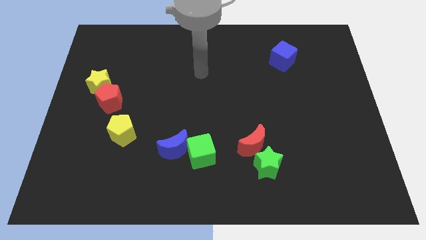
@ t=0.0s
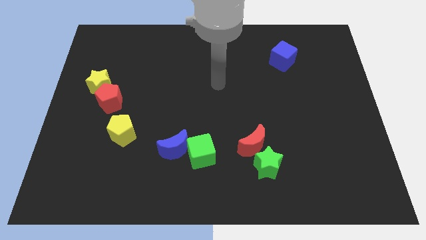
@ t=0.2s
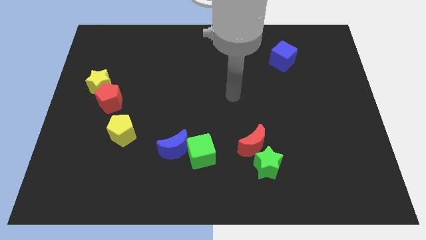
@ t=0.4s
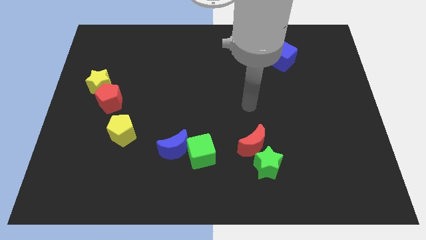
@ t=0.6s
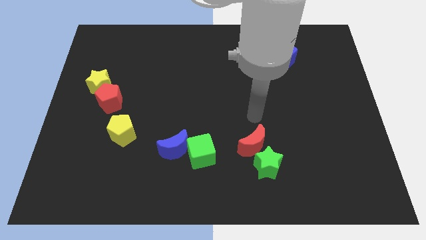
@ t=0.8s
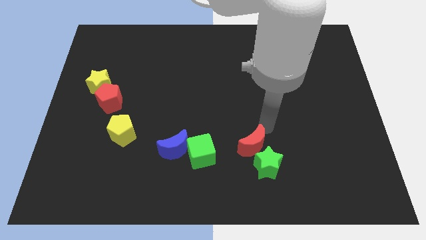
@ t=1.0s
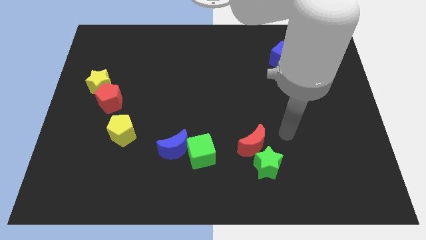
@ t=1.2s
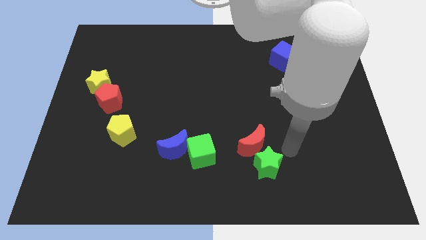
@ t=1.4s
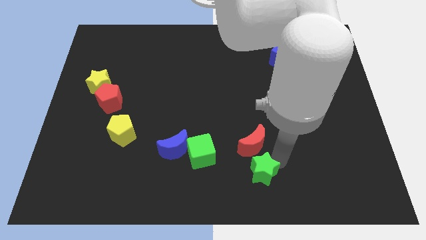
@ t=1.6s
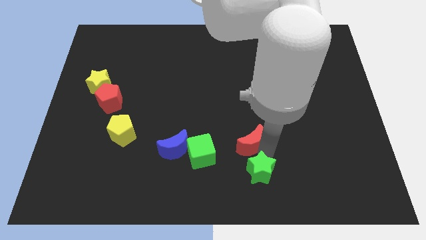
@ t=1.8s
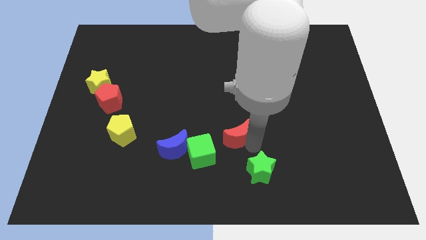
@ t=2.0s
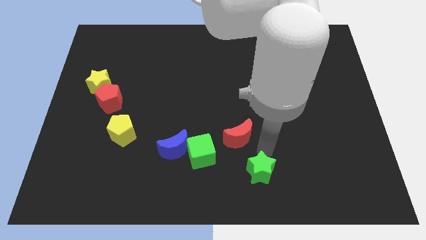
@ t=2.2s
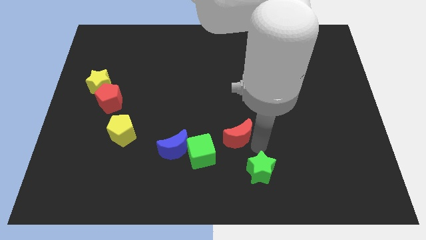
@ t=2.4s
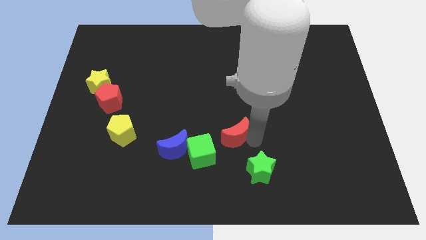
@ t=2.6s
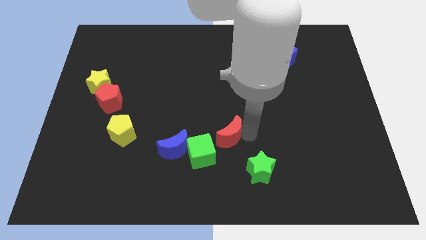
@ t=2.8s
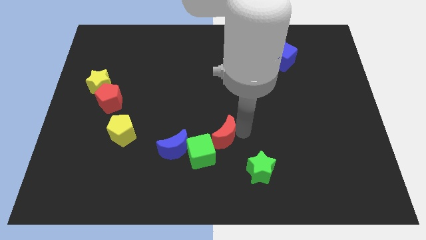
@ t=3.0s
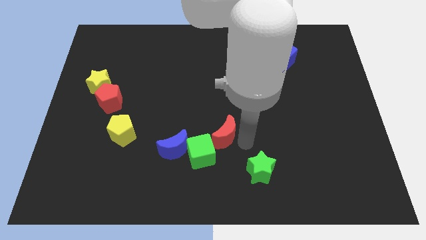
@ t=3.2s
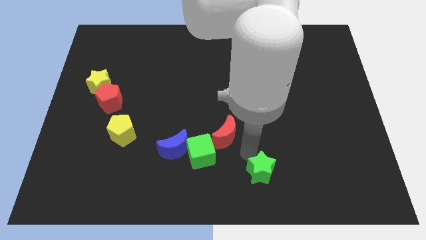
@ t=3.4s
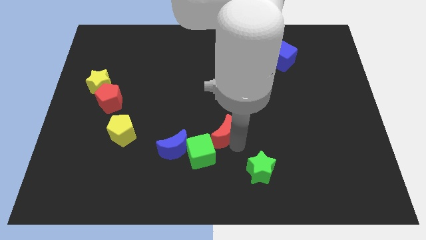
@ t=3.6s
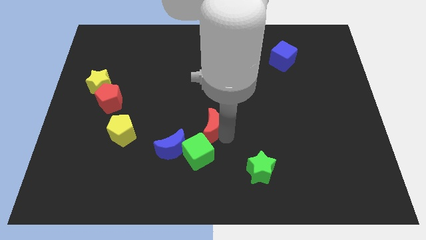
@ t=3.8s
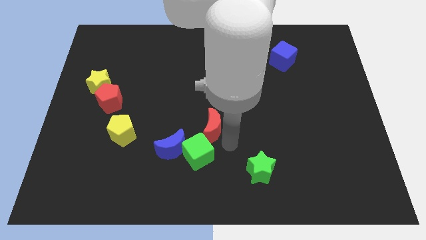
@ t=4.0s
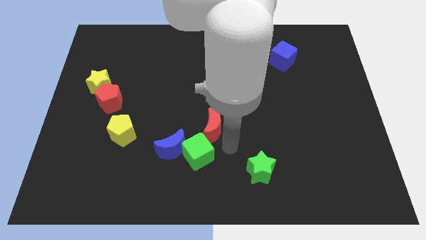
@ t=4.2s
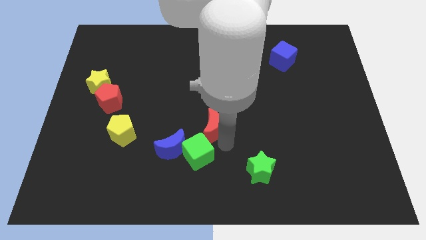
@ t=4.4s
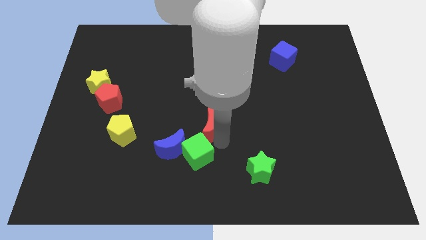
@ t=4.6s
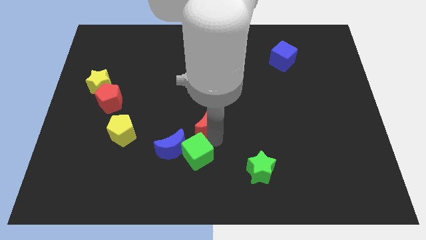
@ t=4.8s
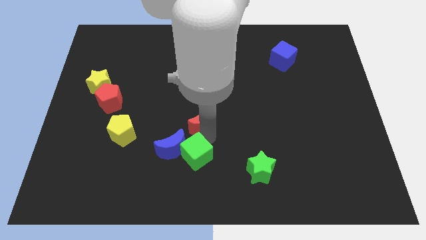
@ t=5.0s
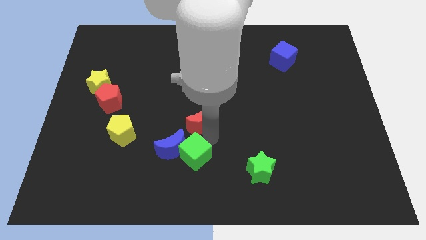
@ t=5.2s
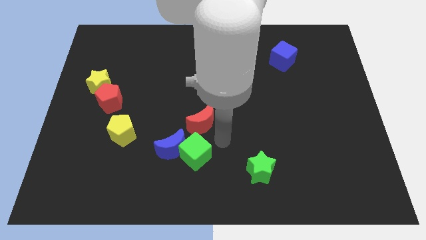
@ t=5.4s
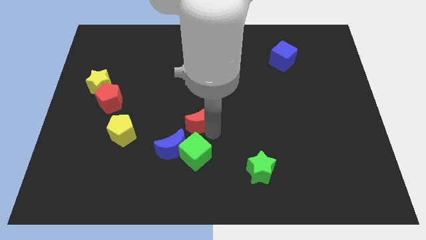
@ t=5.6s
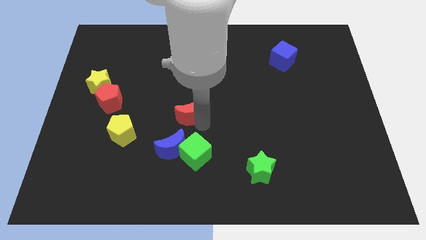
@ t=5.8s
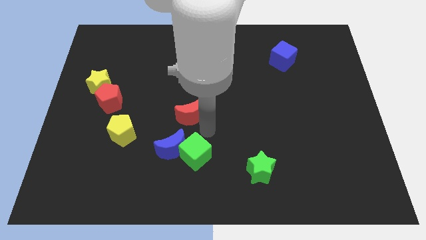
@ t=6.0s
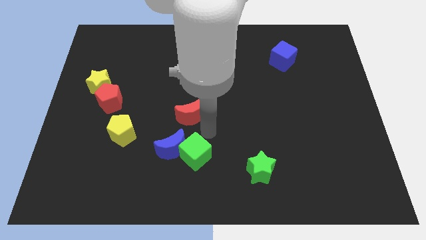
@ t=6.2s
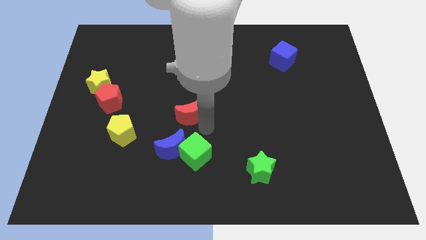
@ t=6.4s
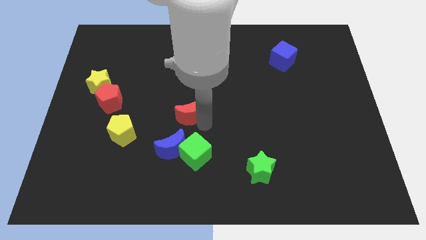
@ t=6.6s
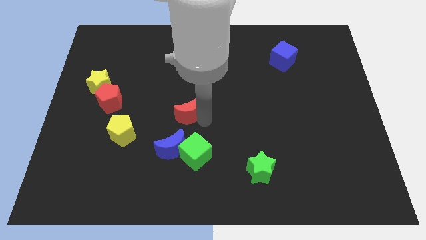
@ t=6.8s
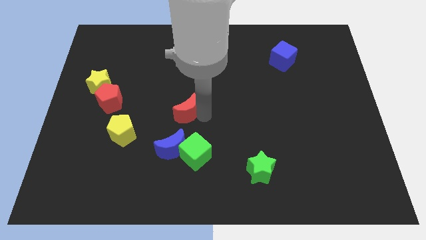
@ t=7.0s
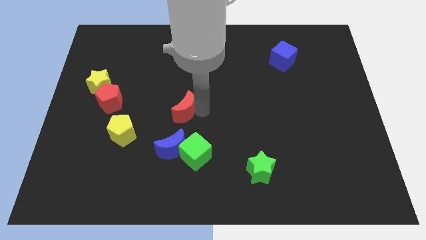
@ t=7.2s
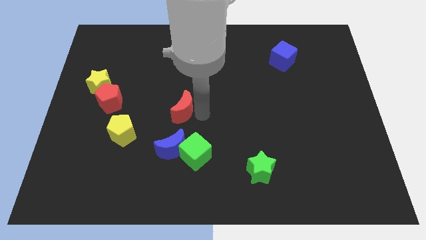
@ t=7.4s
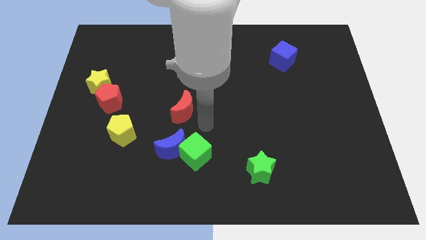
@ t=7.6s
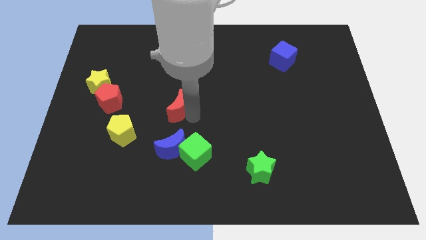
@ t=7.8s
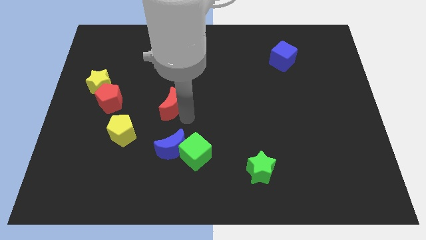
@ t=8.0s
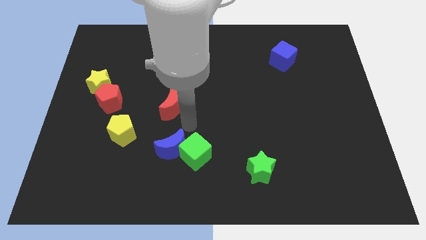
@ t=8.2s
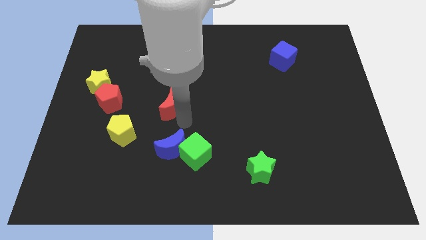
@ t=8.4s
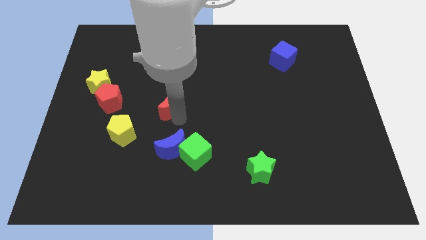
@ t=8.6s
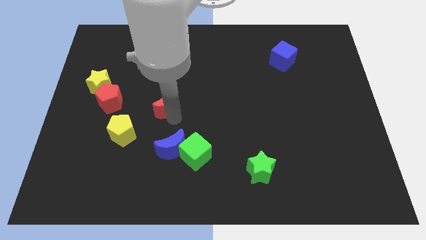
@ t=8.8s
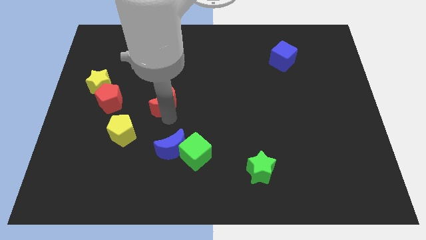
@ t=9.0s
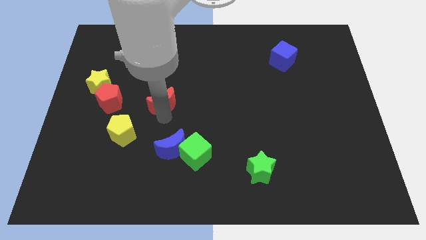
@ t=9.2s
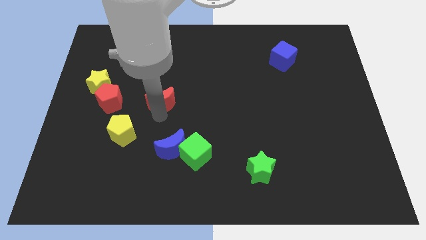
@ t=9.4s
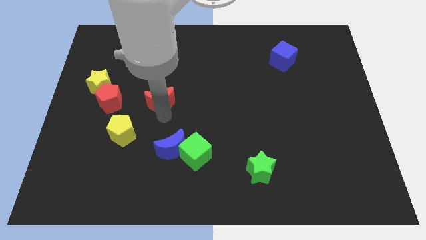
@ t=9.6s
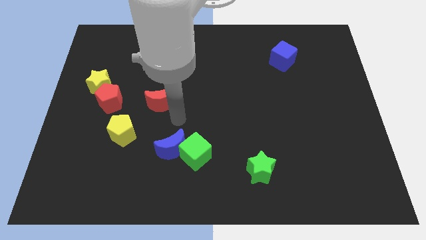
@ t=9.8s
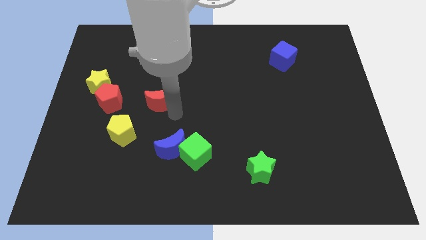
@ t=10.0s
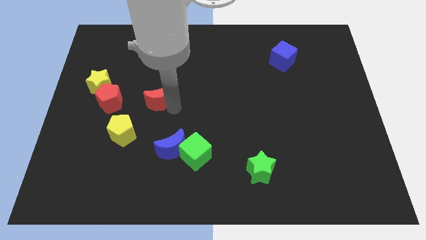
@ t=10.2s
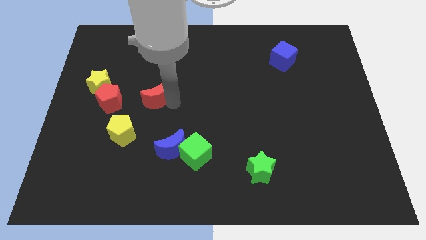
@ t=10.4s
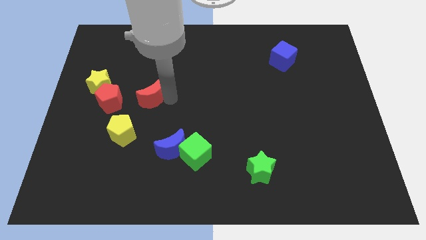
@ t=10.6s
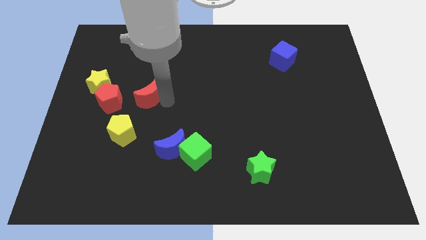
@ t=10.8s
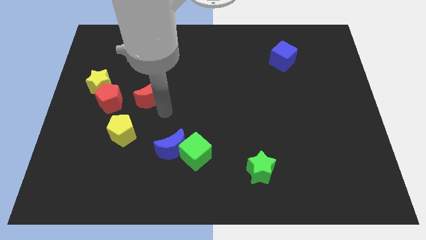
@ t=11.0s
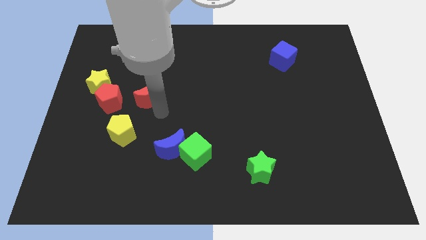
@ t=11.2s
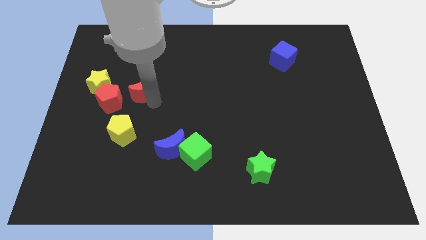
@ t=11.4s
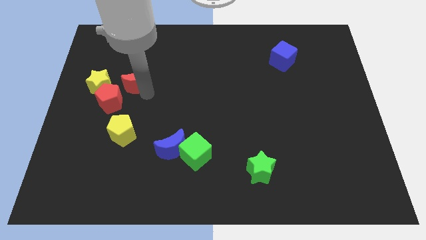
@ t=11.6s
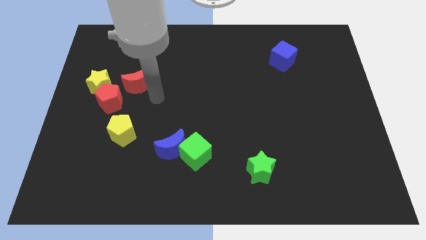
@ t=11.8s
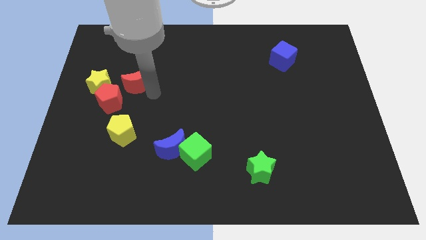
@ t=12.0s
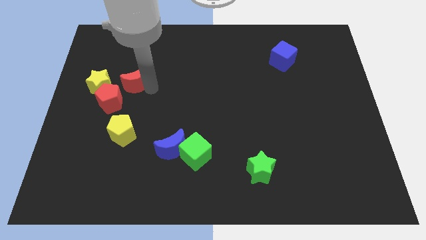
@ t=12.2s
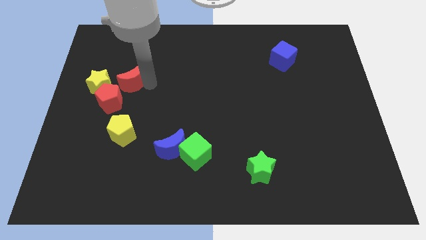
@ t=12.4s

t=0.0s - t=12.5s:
push the red moon to the top side of the red pentagon

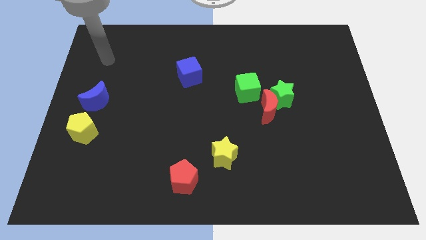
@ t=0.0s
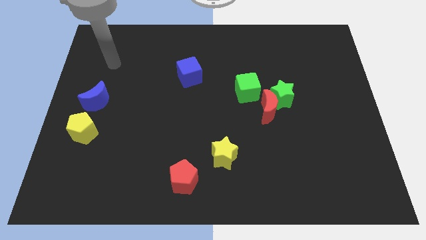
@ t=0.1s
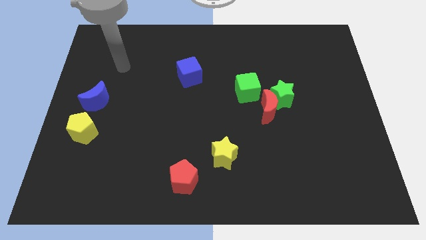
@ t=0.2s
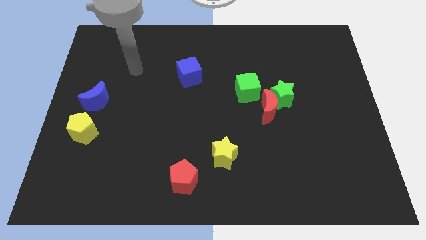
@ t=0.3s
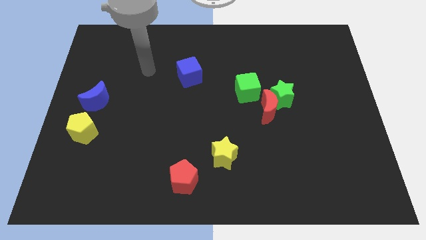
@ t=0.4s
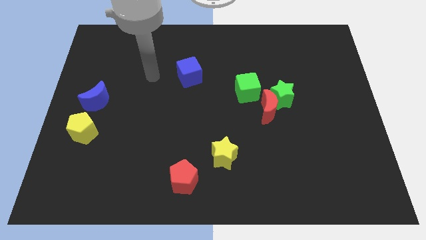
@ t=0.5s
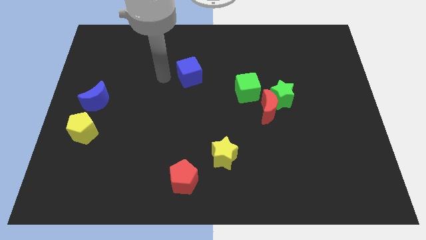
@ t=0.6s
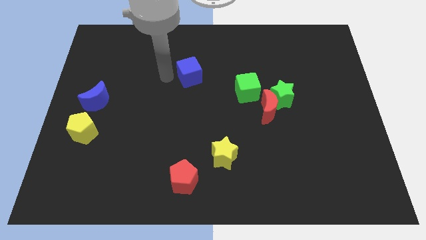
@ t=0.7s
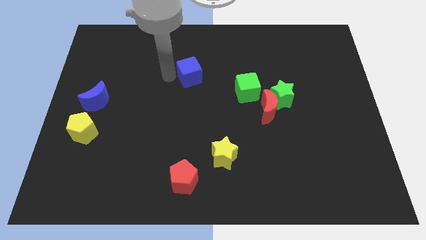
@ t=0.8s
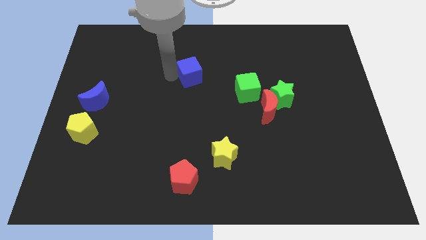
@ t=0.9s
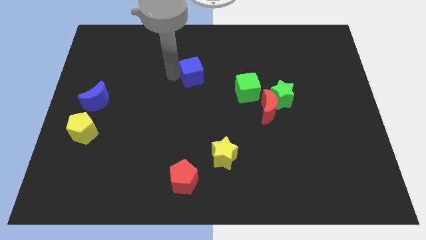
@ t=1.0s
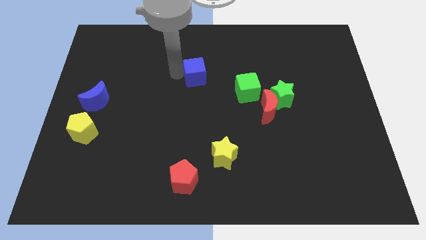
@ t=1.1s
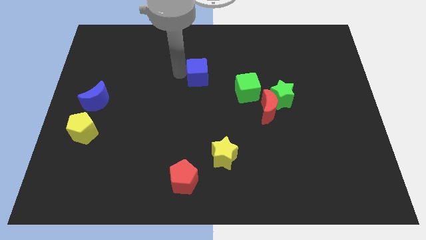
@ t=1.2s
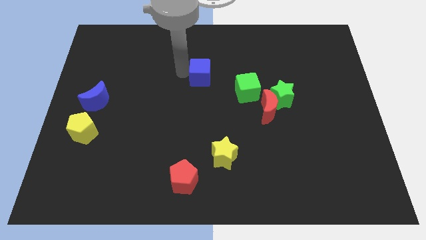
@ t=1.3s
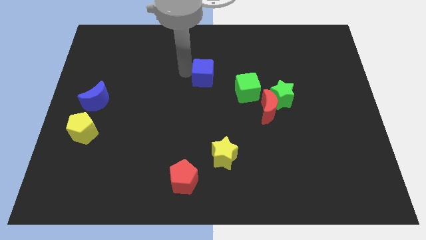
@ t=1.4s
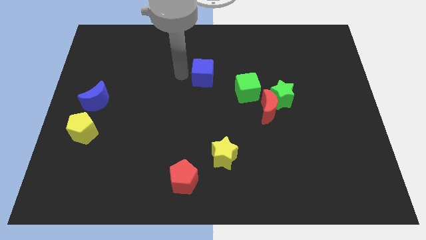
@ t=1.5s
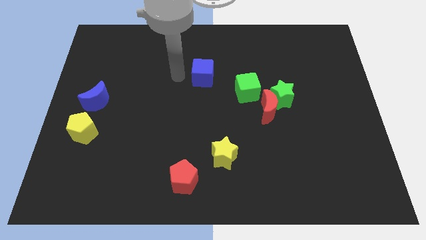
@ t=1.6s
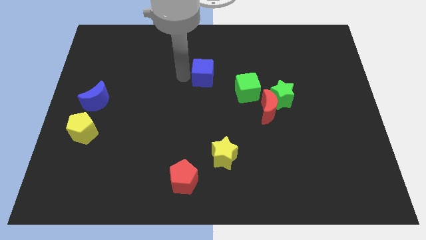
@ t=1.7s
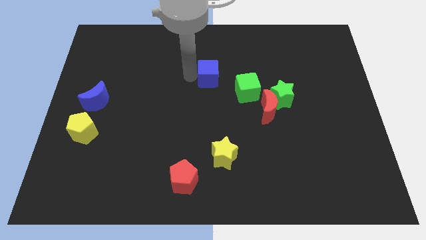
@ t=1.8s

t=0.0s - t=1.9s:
move the blue cube diagonally up and to the left of the green cube

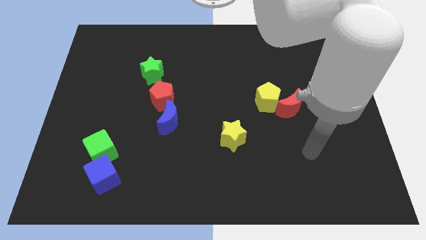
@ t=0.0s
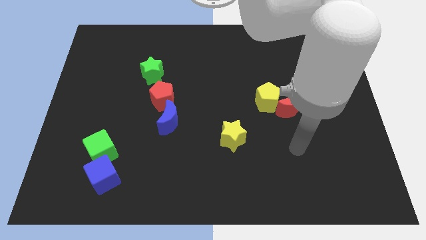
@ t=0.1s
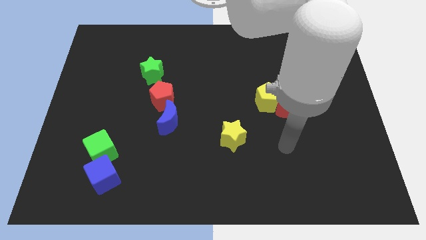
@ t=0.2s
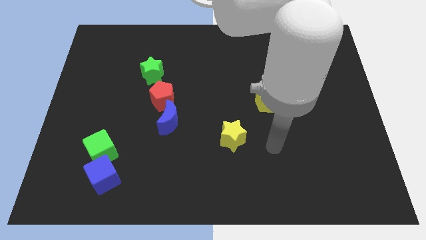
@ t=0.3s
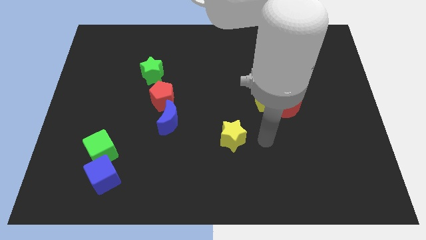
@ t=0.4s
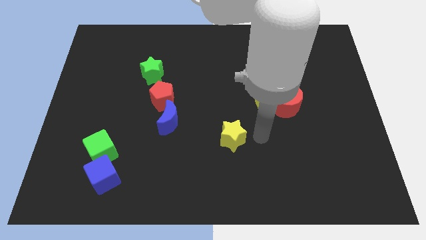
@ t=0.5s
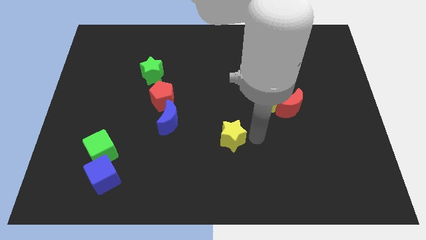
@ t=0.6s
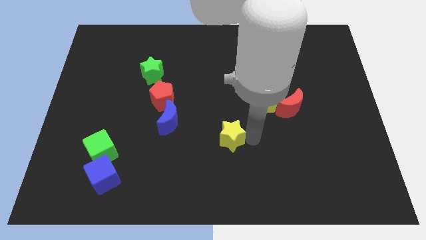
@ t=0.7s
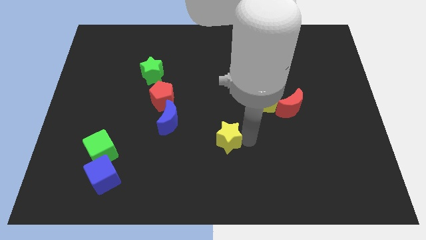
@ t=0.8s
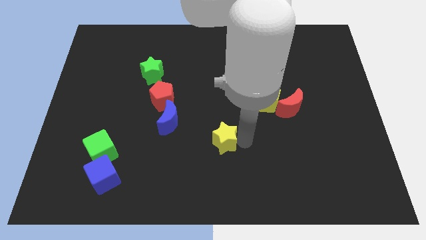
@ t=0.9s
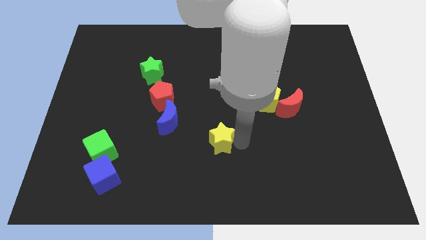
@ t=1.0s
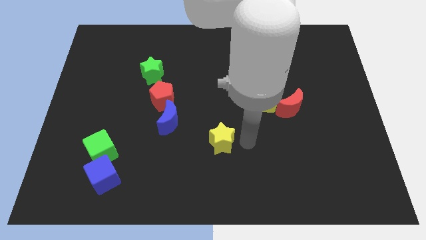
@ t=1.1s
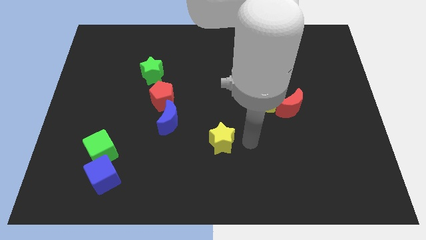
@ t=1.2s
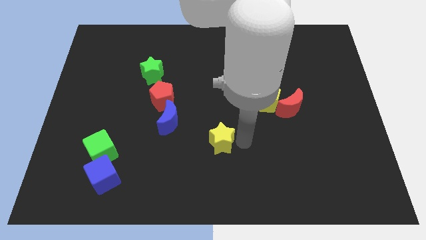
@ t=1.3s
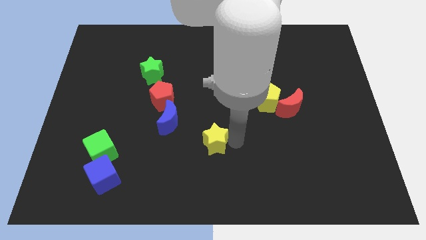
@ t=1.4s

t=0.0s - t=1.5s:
move the yellow star diagonally down and to the right of the blue moon
